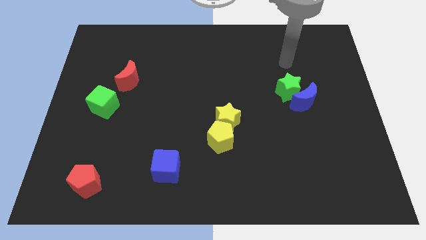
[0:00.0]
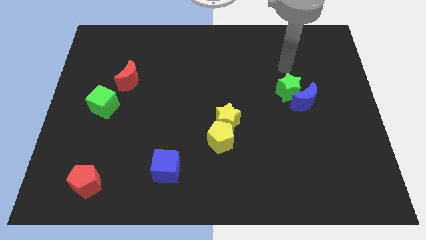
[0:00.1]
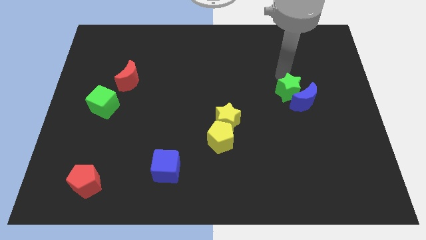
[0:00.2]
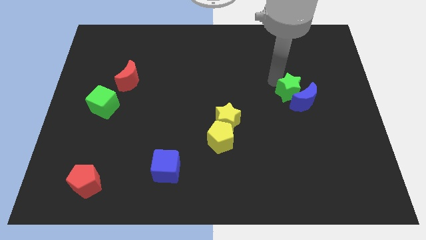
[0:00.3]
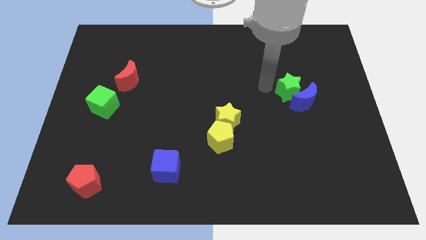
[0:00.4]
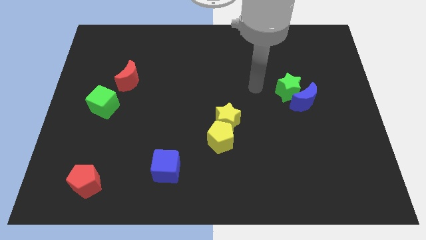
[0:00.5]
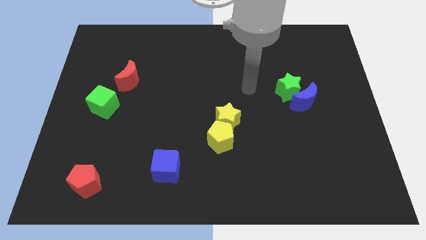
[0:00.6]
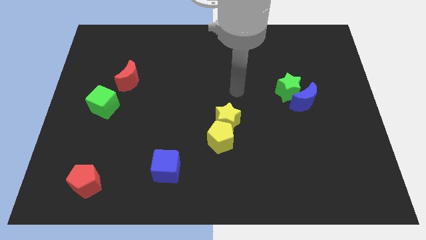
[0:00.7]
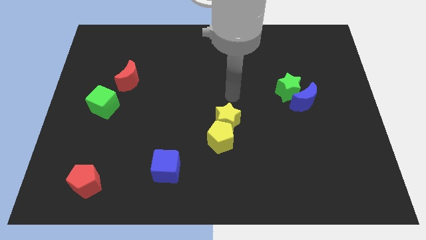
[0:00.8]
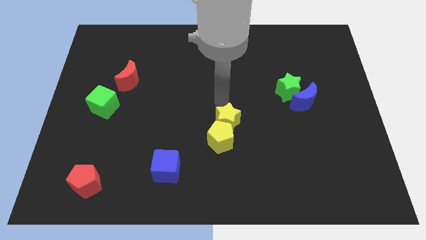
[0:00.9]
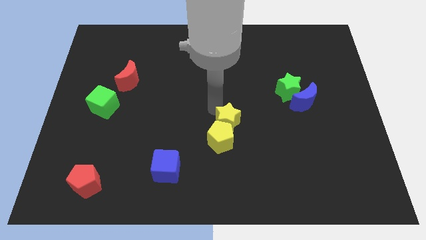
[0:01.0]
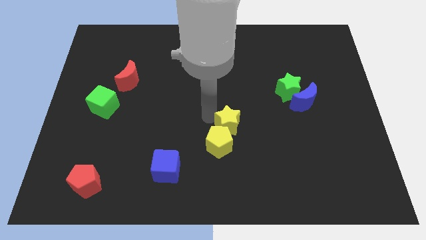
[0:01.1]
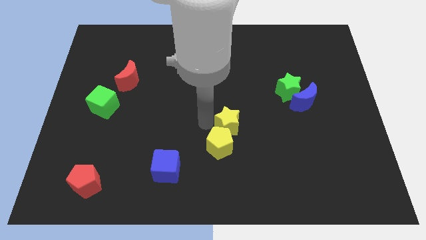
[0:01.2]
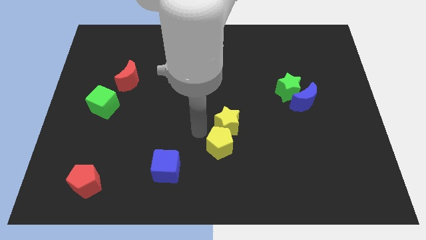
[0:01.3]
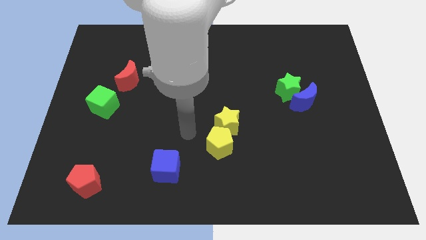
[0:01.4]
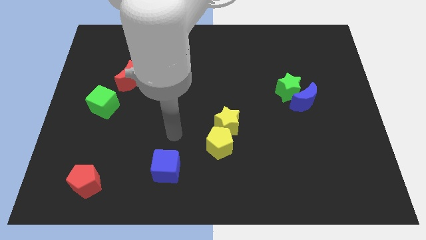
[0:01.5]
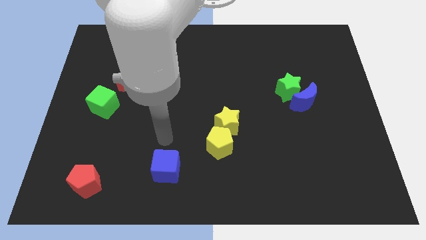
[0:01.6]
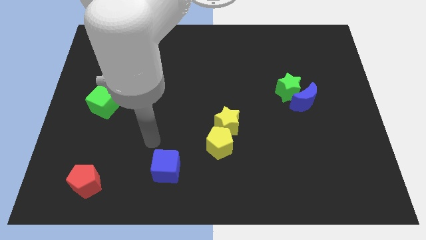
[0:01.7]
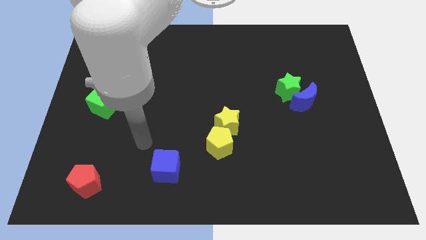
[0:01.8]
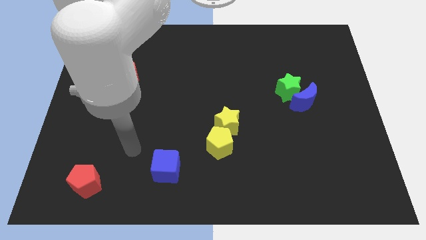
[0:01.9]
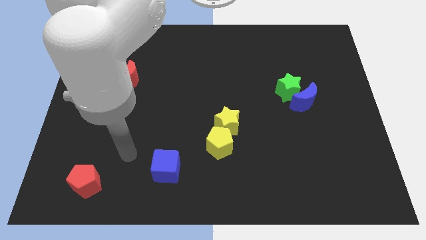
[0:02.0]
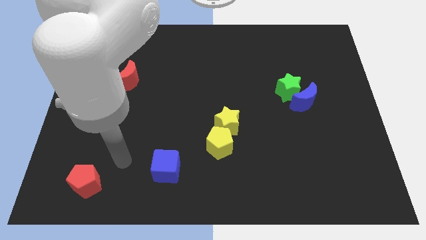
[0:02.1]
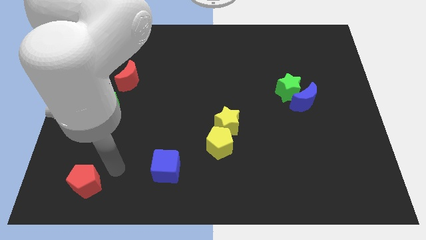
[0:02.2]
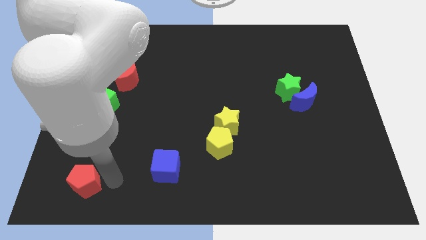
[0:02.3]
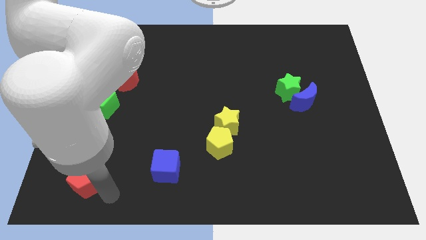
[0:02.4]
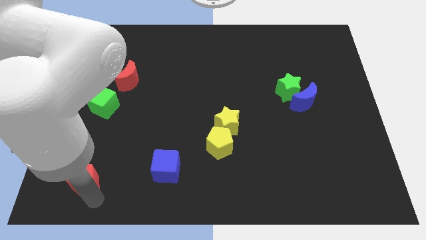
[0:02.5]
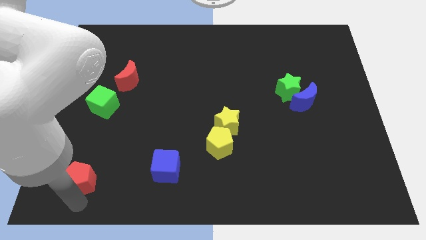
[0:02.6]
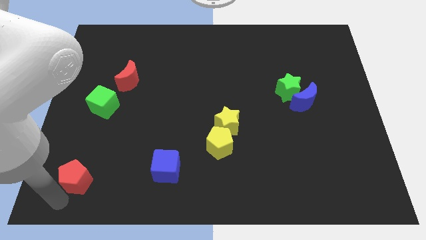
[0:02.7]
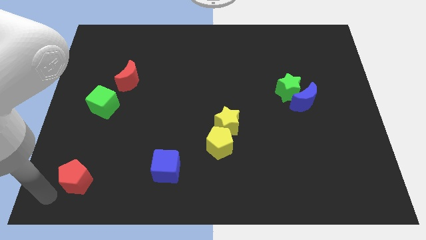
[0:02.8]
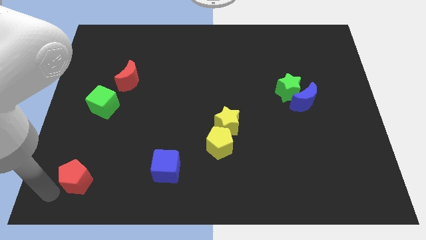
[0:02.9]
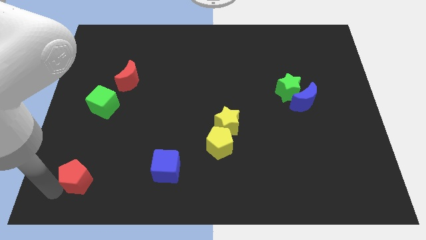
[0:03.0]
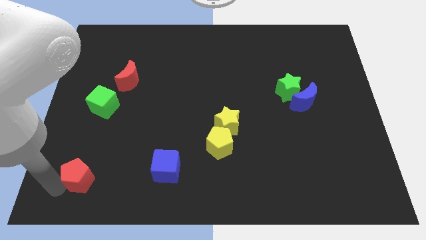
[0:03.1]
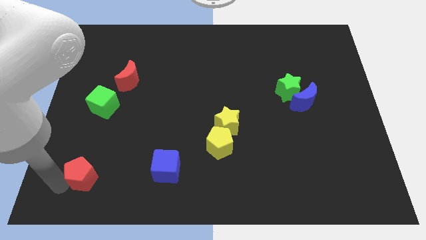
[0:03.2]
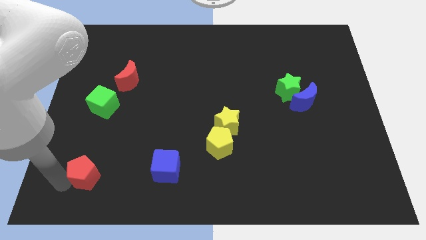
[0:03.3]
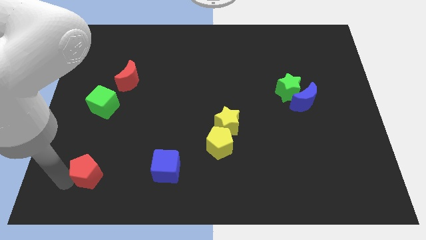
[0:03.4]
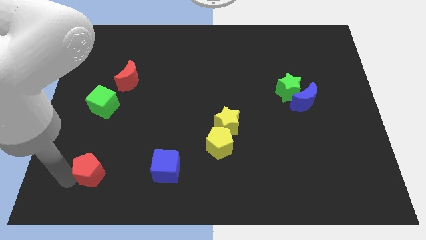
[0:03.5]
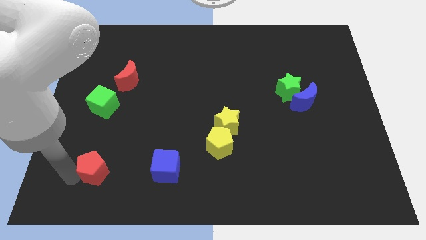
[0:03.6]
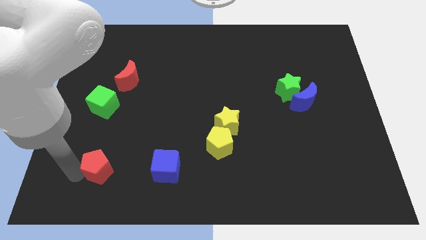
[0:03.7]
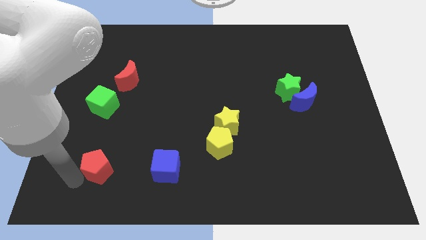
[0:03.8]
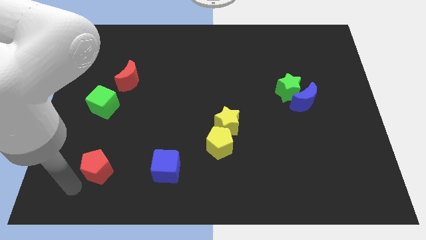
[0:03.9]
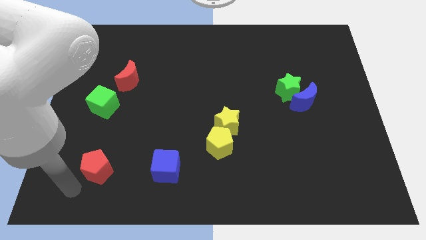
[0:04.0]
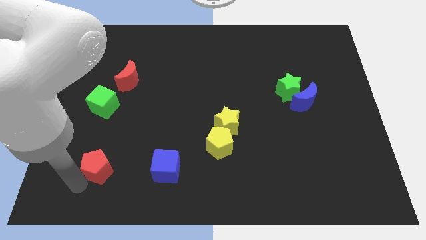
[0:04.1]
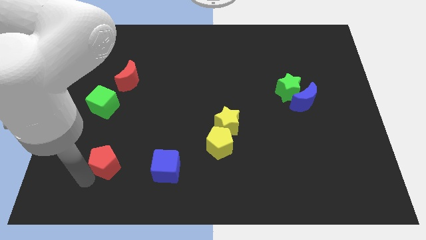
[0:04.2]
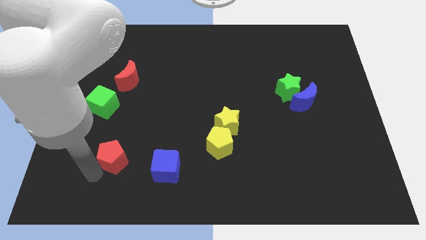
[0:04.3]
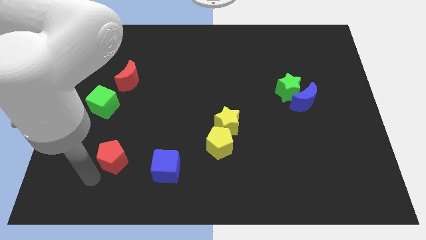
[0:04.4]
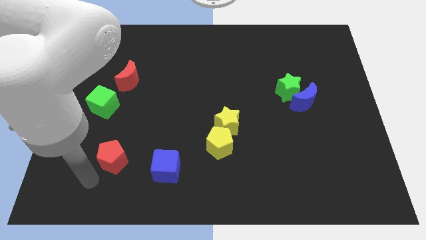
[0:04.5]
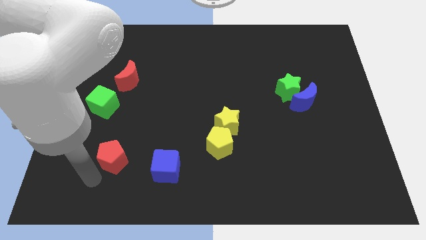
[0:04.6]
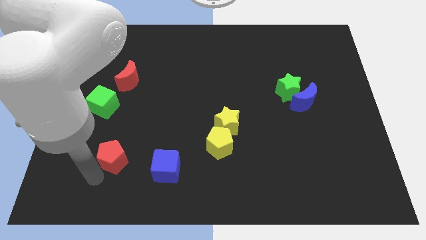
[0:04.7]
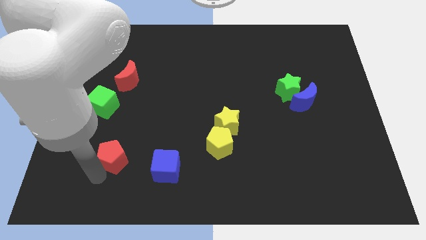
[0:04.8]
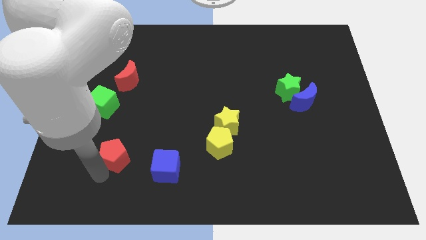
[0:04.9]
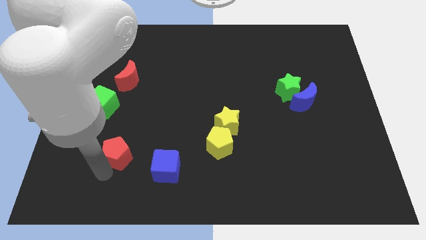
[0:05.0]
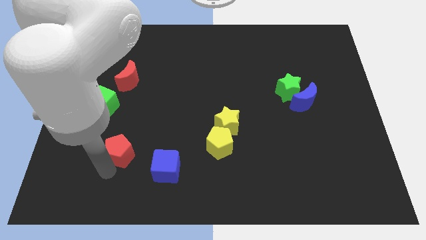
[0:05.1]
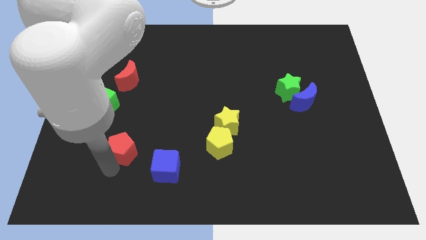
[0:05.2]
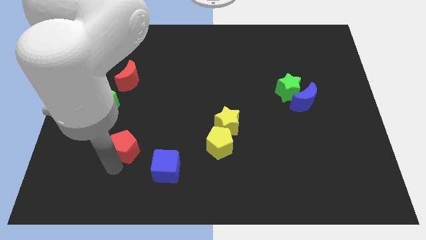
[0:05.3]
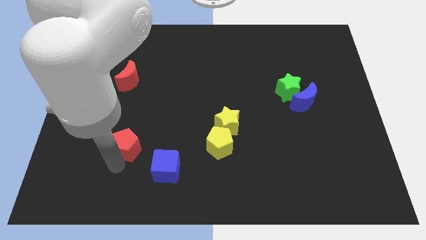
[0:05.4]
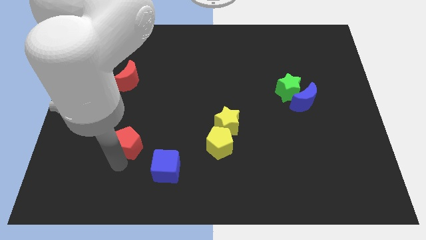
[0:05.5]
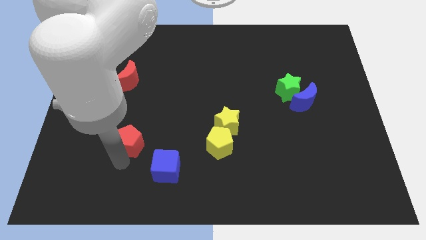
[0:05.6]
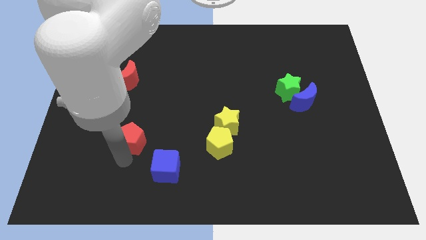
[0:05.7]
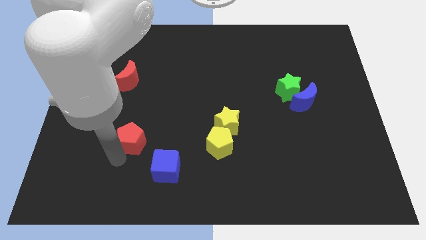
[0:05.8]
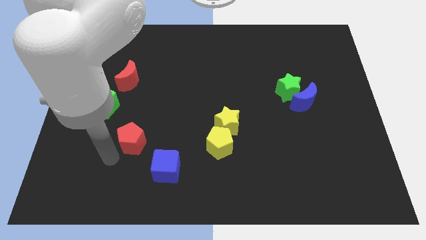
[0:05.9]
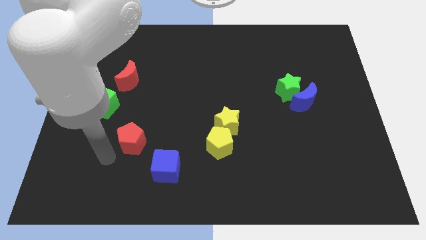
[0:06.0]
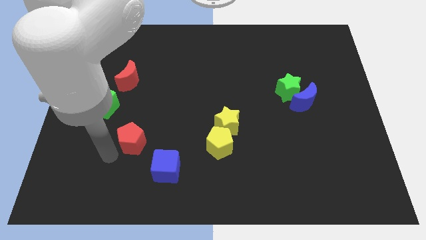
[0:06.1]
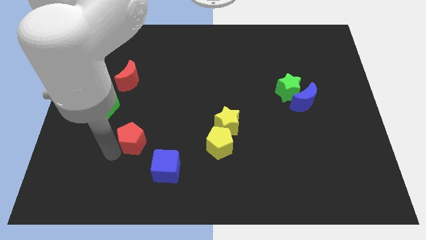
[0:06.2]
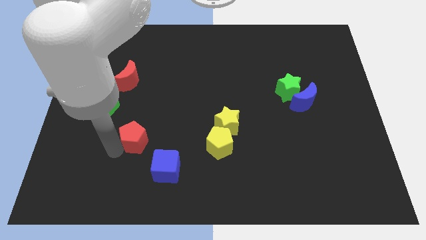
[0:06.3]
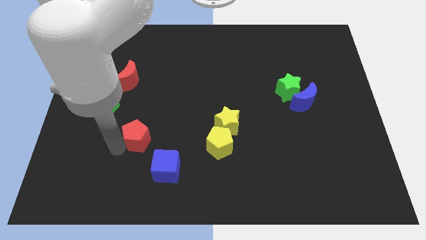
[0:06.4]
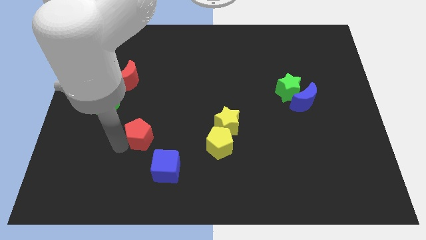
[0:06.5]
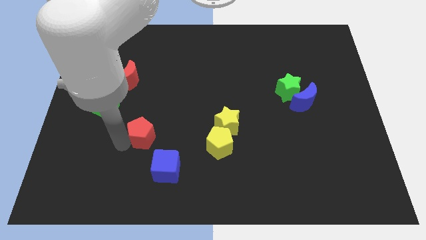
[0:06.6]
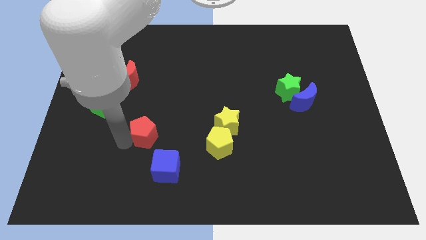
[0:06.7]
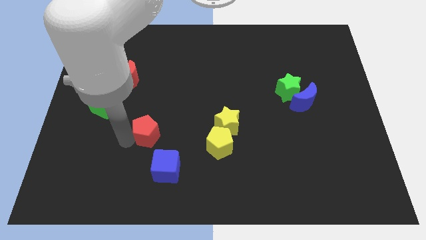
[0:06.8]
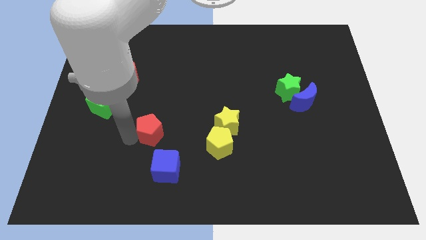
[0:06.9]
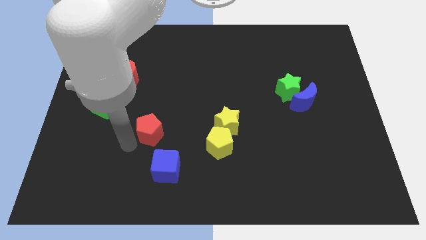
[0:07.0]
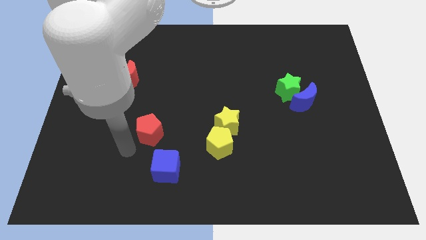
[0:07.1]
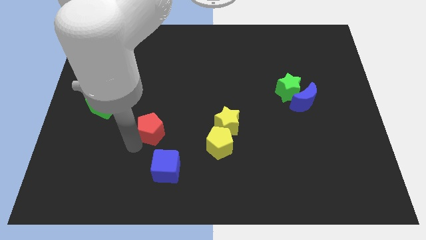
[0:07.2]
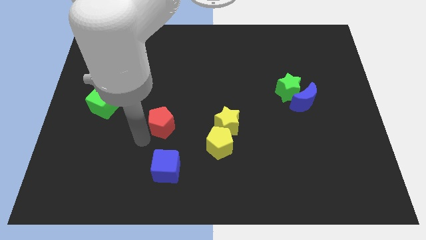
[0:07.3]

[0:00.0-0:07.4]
push the red pentagon diagonally upwards and right

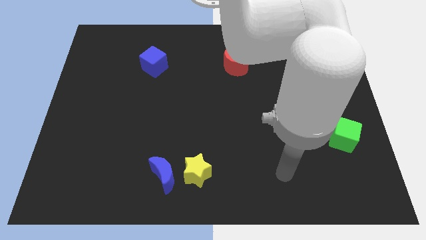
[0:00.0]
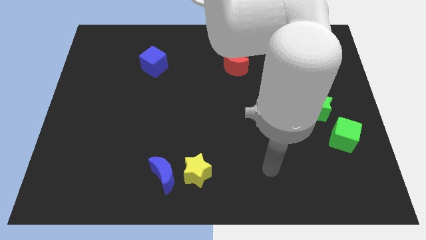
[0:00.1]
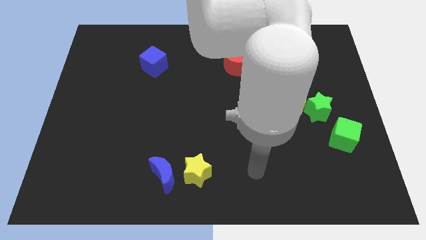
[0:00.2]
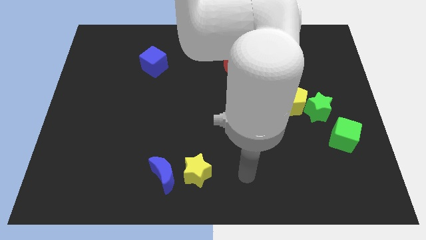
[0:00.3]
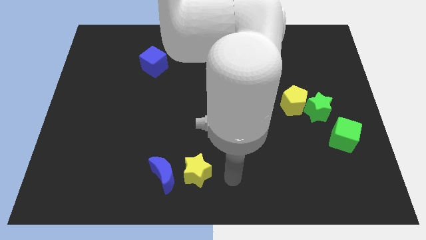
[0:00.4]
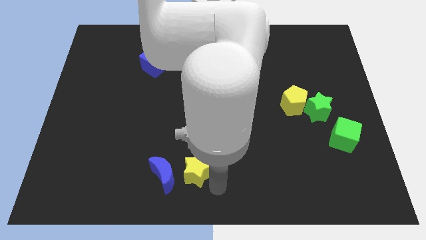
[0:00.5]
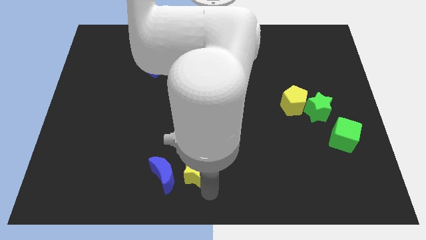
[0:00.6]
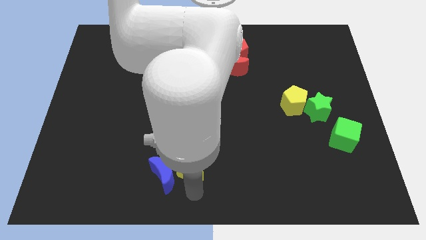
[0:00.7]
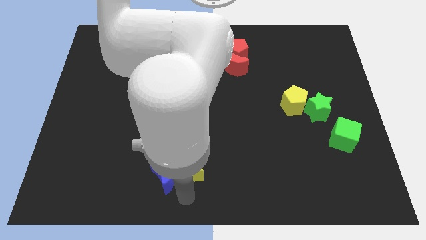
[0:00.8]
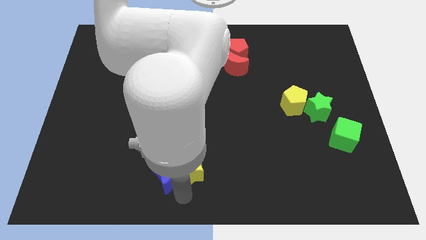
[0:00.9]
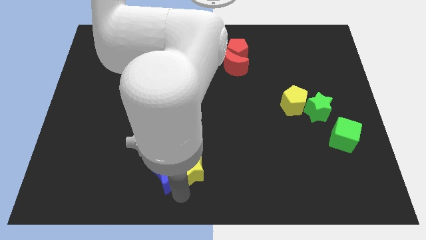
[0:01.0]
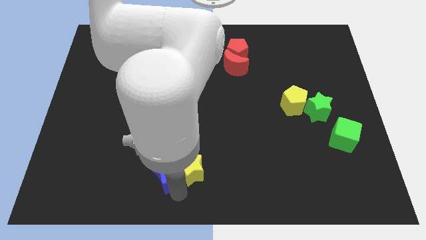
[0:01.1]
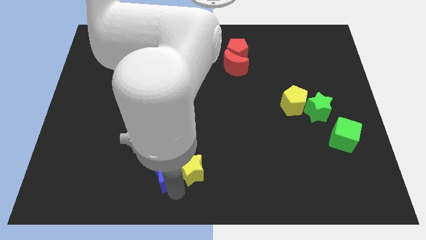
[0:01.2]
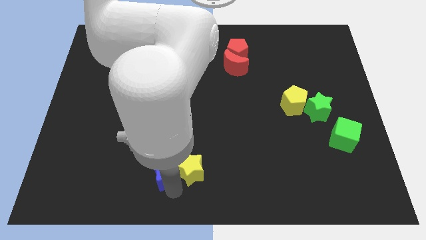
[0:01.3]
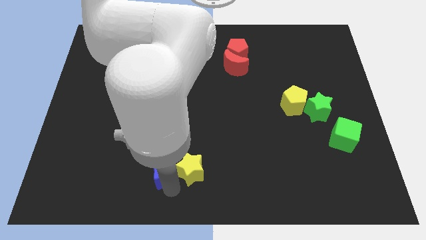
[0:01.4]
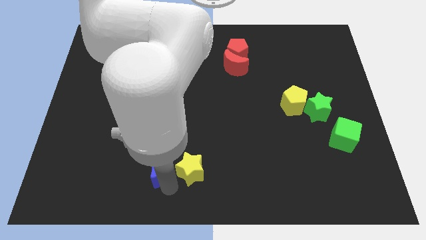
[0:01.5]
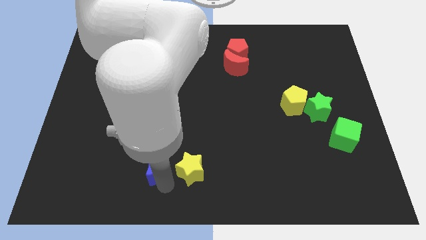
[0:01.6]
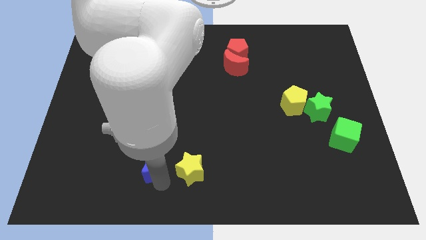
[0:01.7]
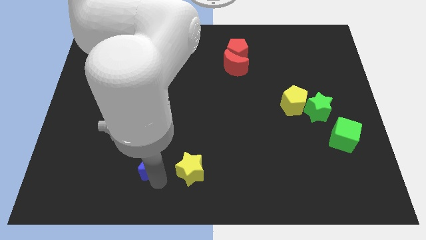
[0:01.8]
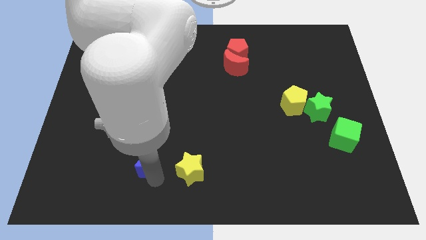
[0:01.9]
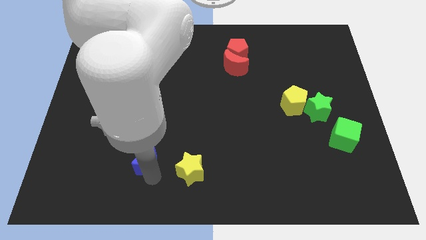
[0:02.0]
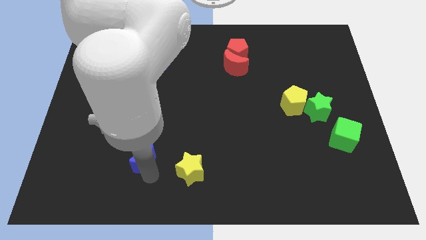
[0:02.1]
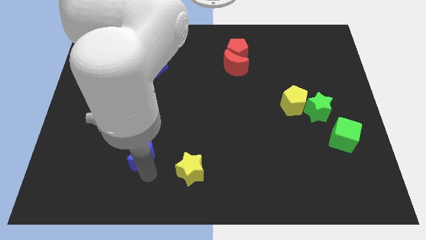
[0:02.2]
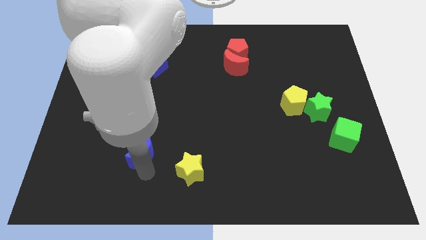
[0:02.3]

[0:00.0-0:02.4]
push the blue moon a bit up and then to the left
